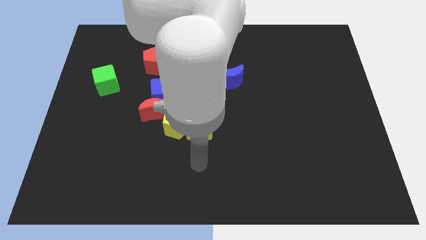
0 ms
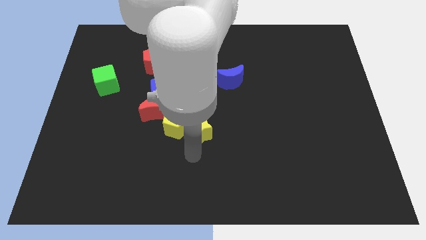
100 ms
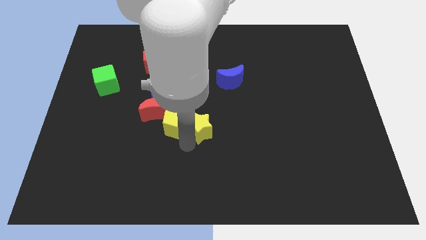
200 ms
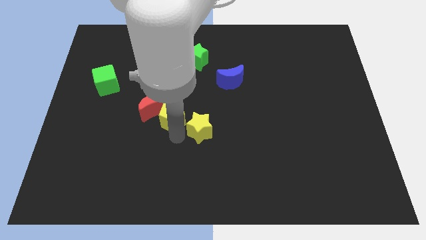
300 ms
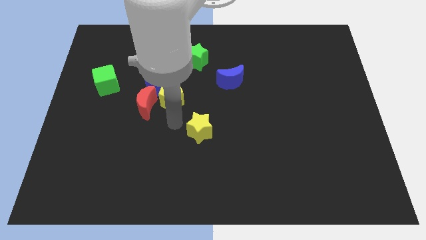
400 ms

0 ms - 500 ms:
separate the yellow star from the yellow pentagon

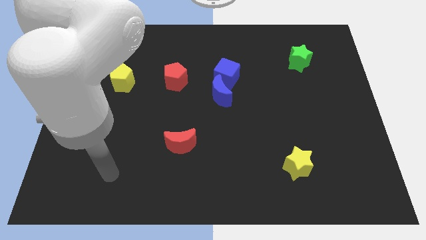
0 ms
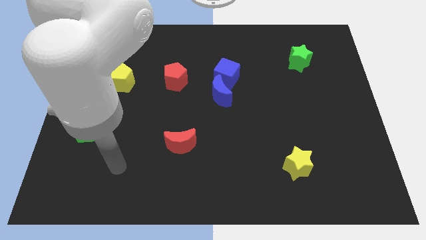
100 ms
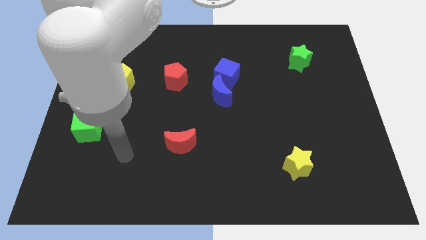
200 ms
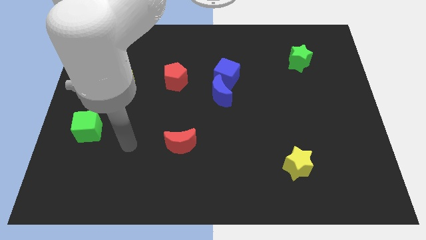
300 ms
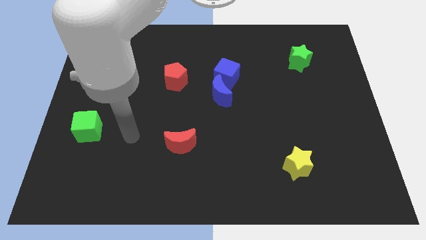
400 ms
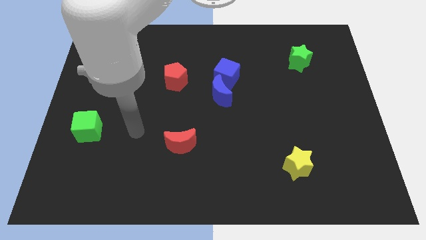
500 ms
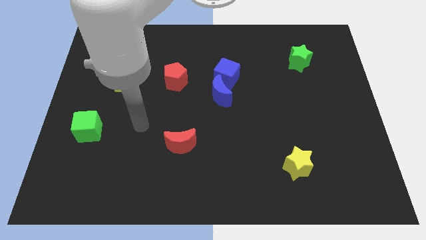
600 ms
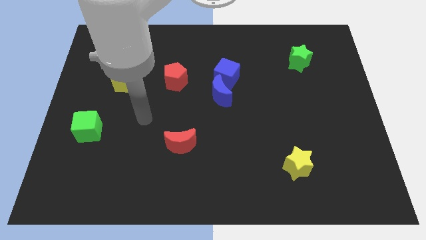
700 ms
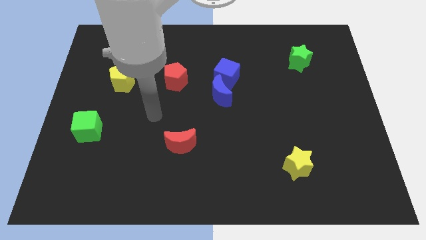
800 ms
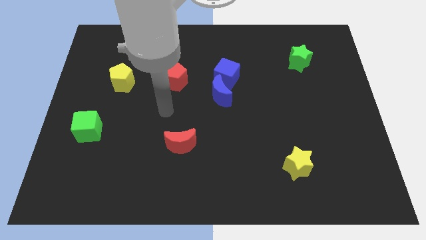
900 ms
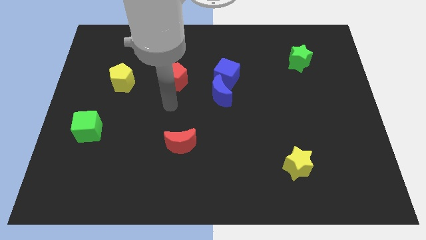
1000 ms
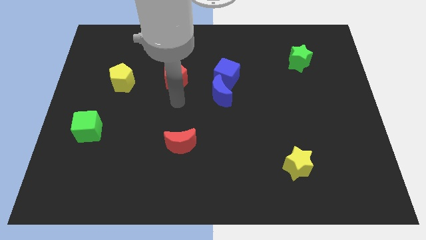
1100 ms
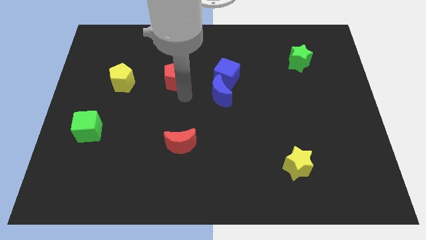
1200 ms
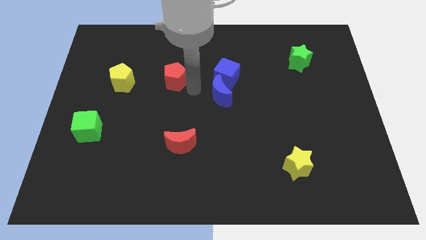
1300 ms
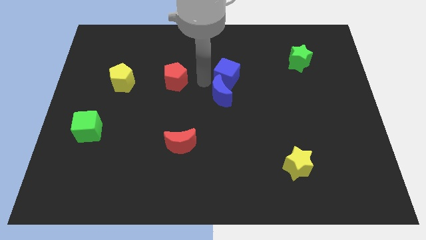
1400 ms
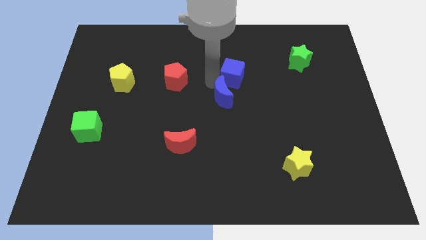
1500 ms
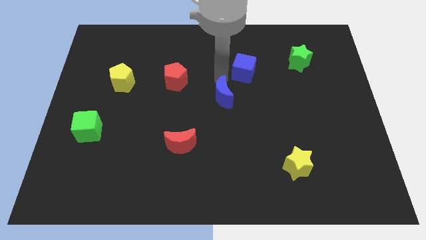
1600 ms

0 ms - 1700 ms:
move the blue moon away from the blue cube

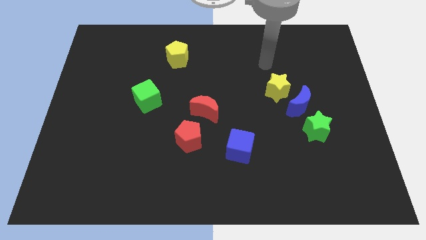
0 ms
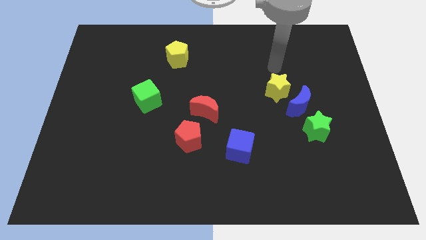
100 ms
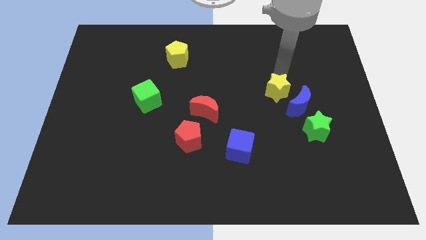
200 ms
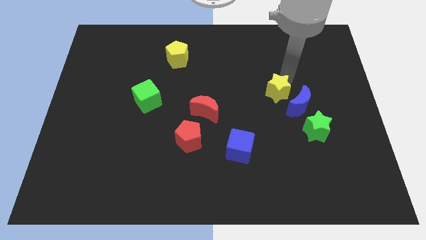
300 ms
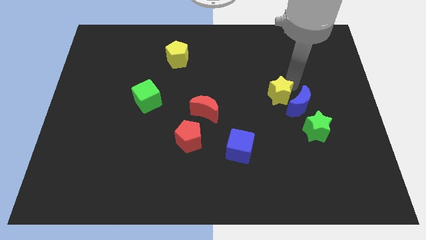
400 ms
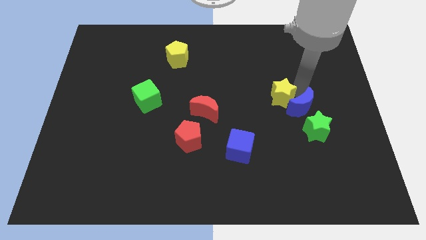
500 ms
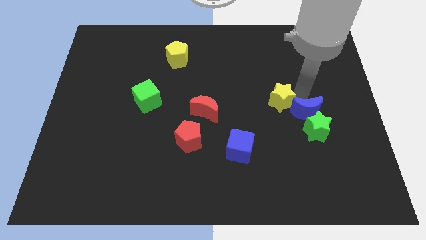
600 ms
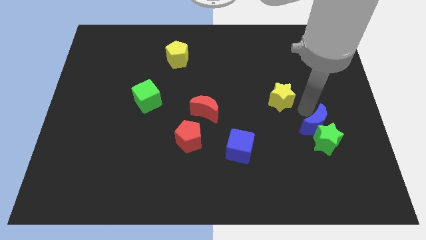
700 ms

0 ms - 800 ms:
separate the yellow star from the blue moon

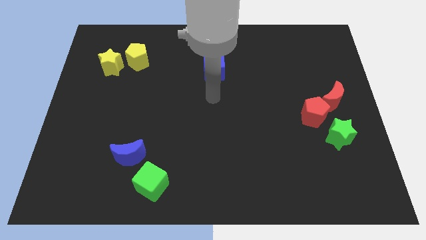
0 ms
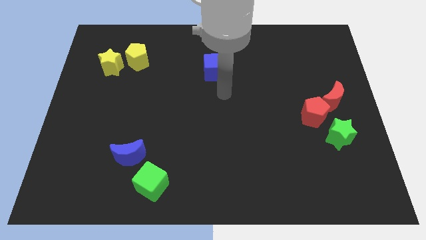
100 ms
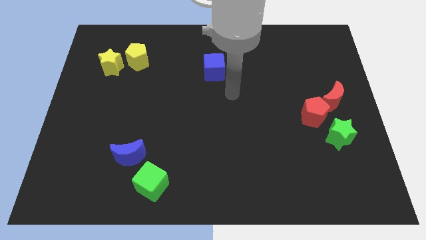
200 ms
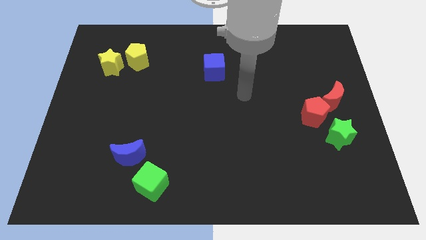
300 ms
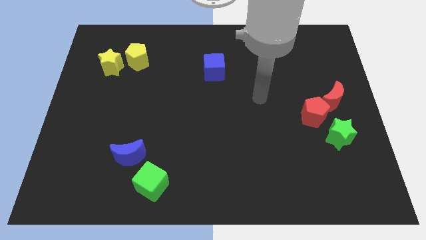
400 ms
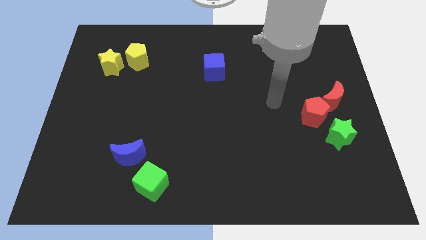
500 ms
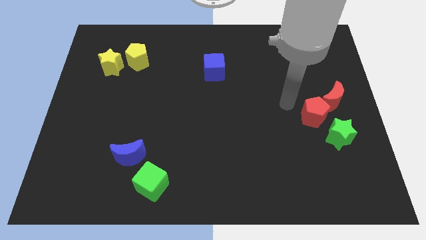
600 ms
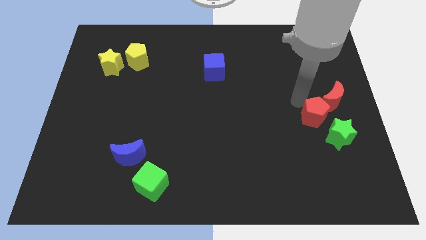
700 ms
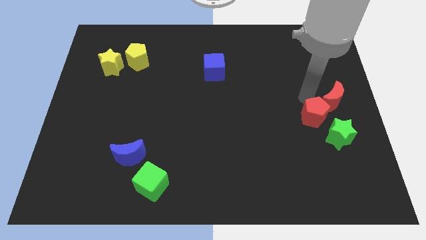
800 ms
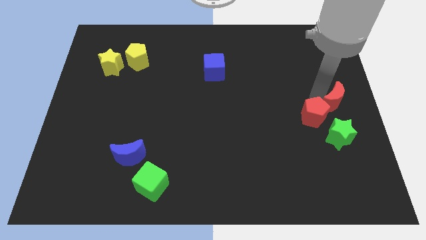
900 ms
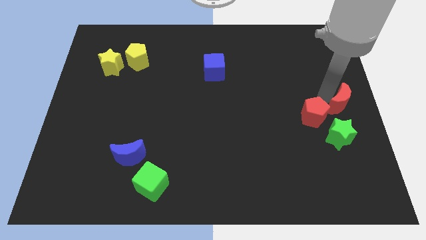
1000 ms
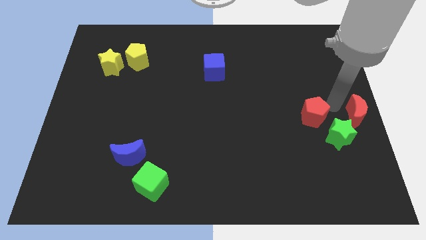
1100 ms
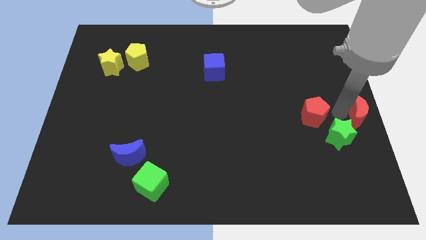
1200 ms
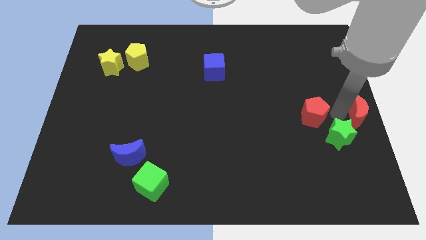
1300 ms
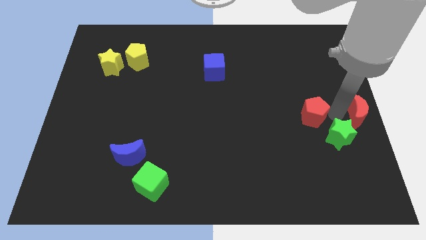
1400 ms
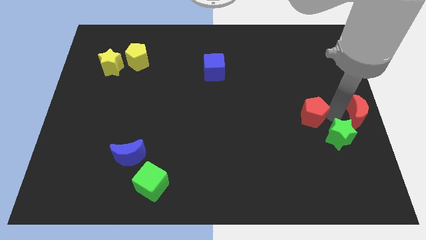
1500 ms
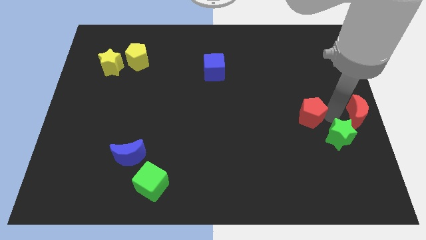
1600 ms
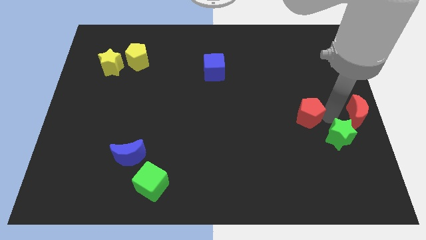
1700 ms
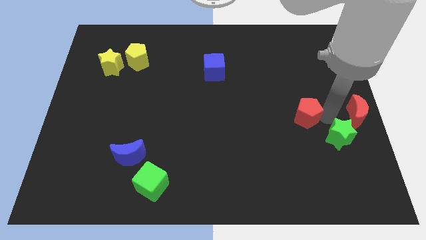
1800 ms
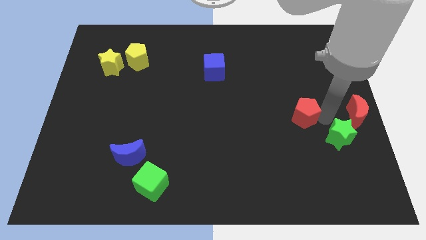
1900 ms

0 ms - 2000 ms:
pull the red pentagon apart from the red moon and green star

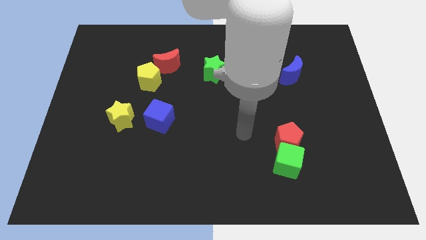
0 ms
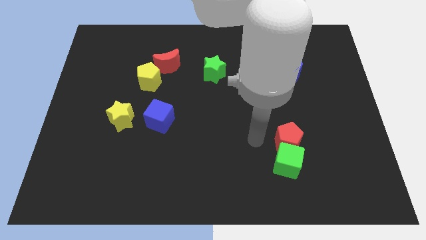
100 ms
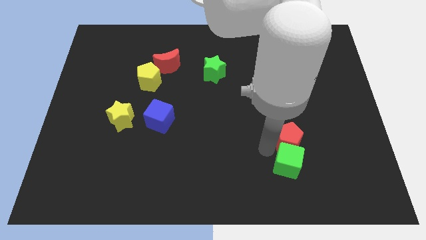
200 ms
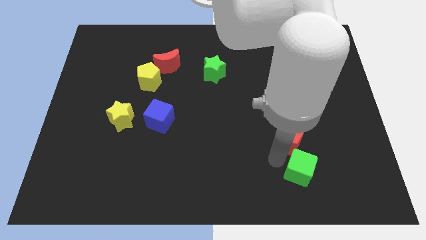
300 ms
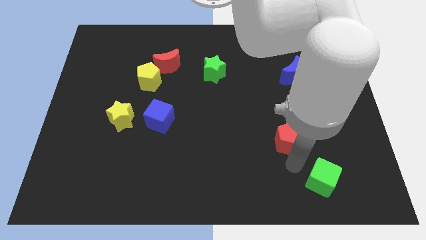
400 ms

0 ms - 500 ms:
move the red pentagon away from the green cube

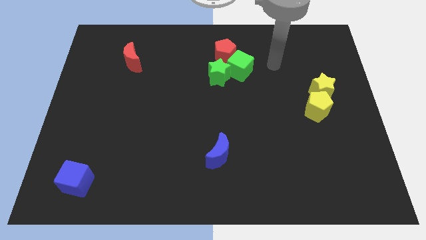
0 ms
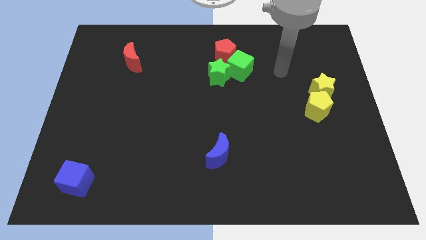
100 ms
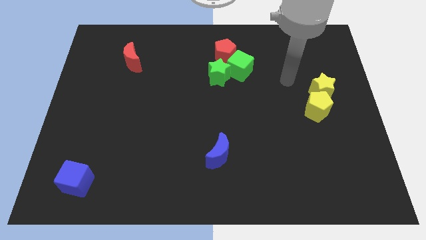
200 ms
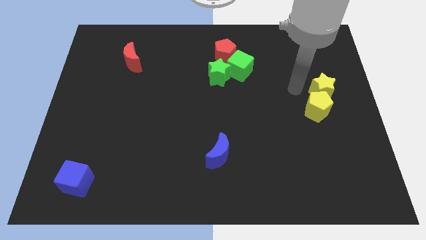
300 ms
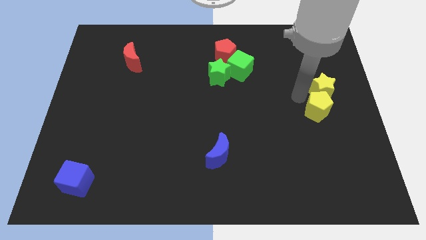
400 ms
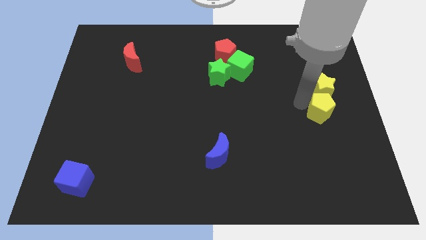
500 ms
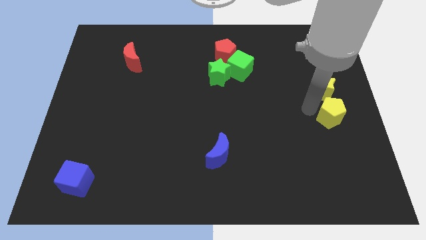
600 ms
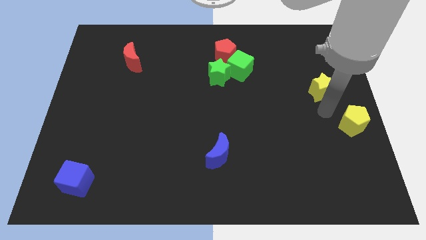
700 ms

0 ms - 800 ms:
pull the yellow star apart from the yellow pentagon

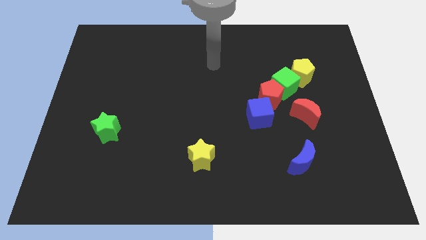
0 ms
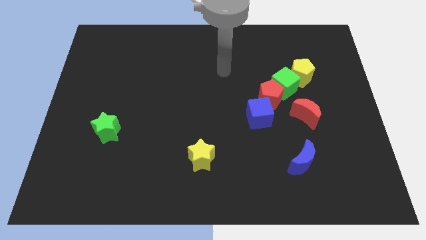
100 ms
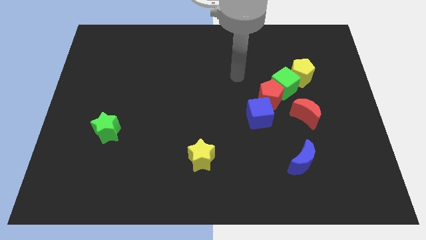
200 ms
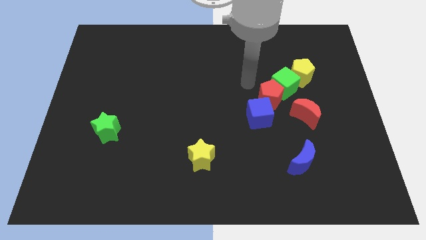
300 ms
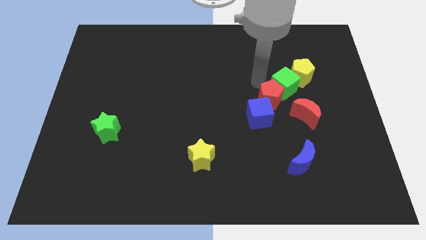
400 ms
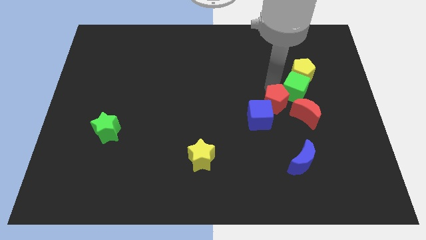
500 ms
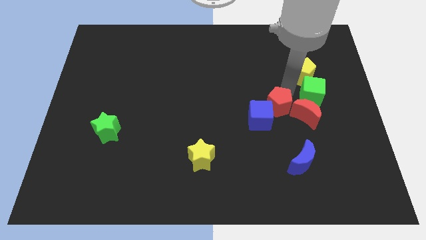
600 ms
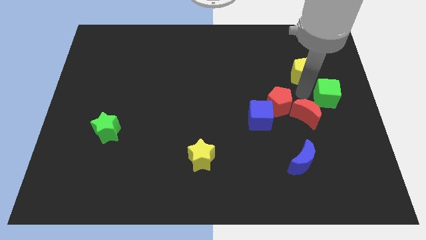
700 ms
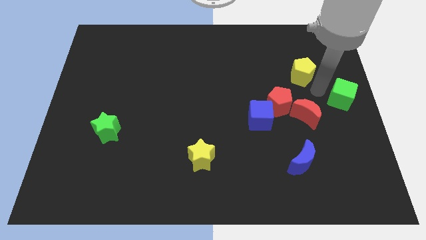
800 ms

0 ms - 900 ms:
pull the yellow pentagon apart from the green cube

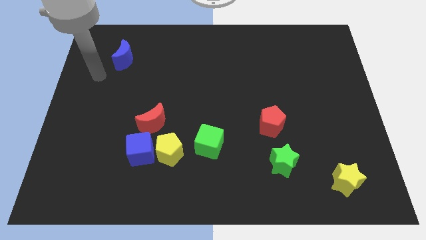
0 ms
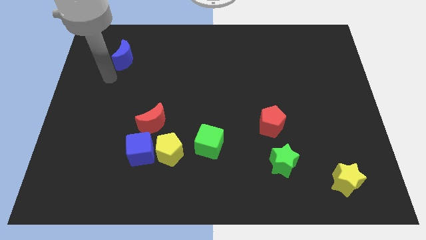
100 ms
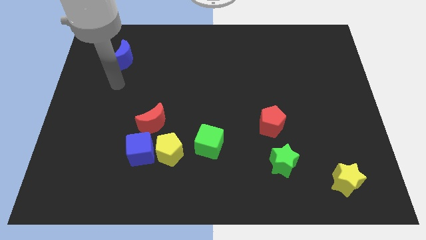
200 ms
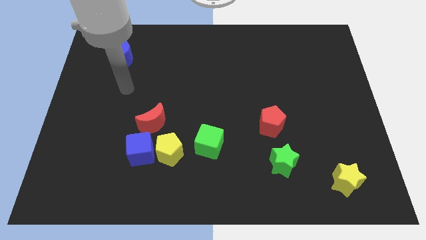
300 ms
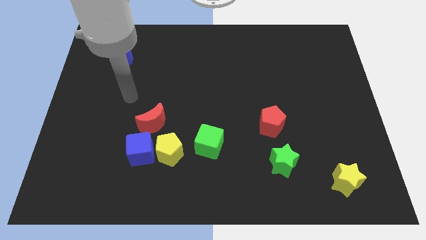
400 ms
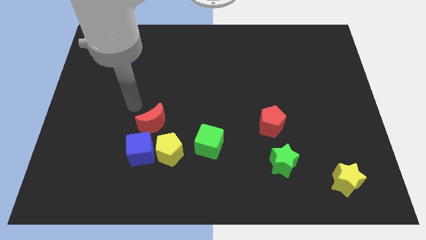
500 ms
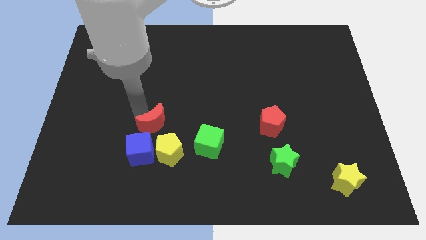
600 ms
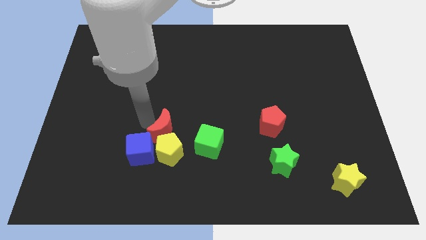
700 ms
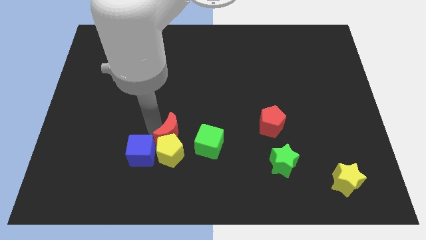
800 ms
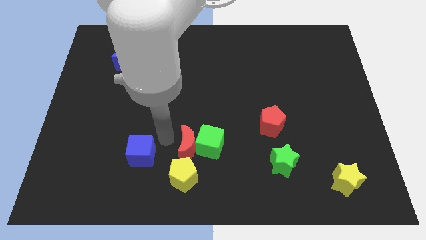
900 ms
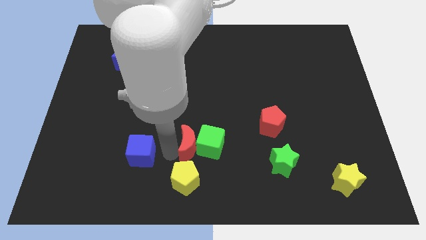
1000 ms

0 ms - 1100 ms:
pull the blue cube apart from the yellow pentagon and red moon

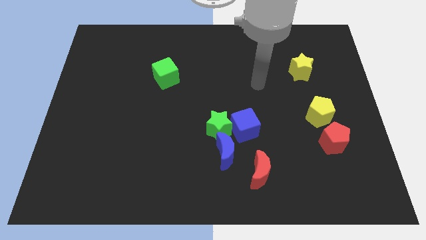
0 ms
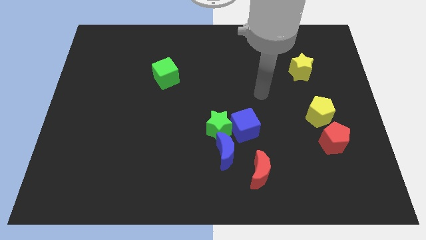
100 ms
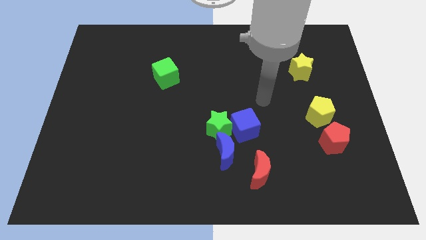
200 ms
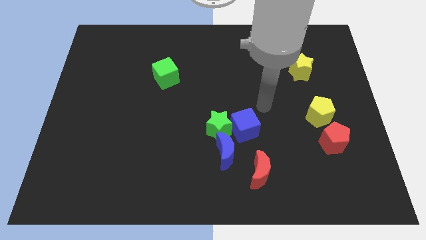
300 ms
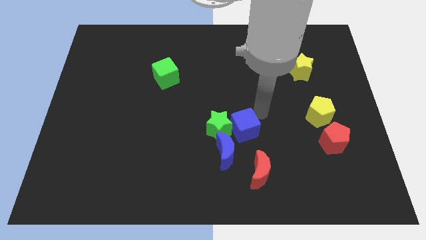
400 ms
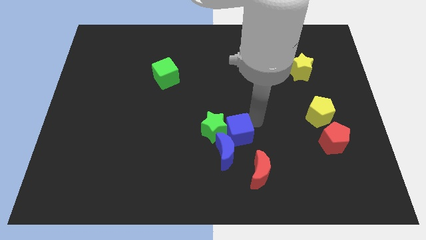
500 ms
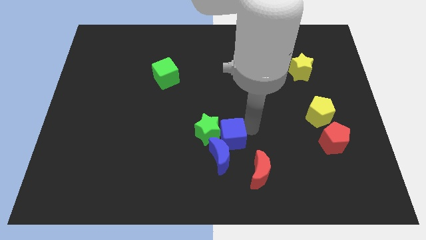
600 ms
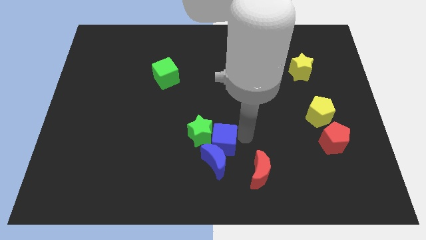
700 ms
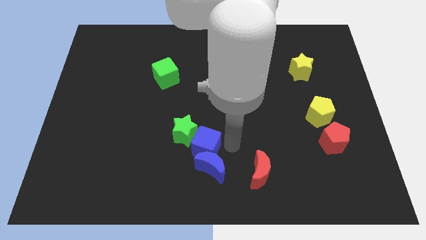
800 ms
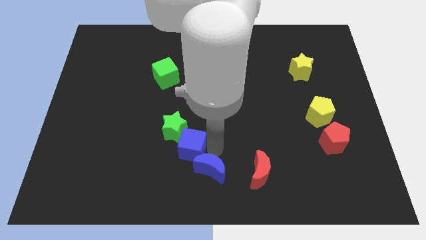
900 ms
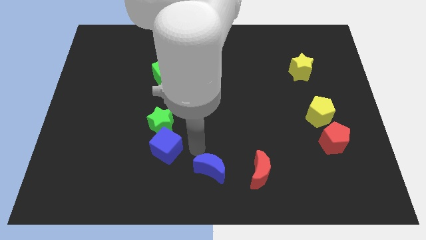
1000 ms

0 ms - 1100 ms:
pull the green star apart from the blue cube and blue moon
